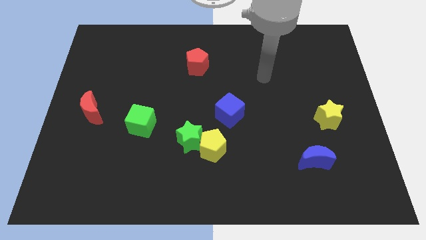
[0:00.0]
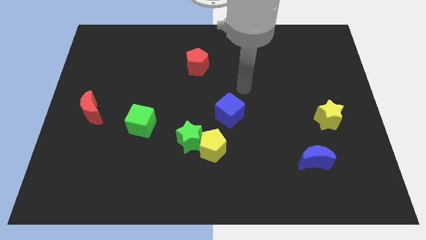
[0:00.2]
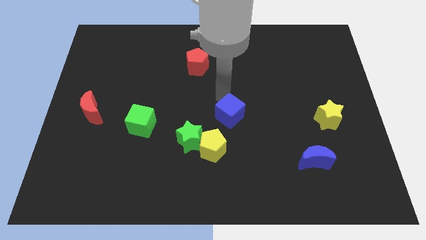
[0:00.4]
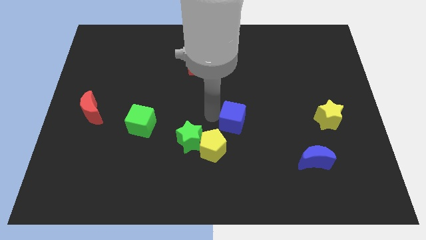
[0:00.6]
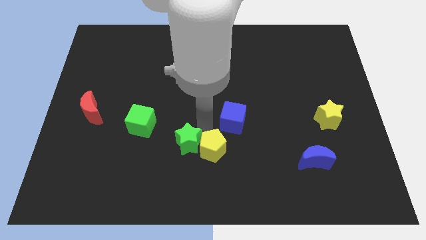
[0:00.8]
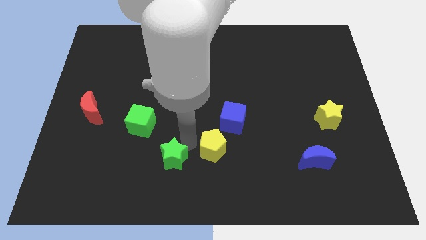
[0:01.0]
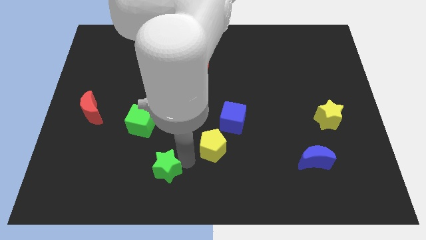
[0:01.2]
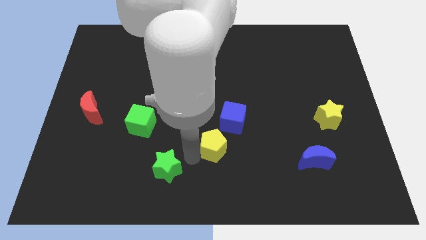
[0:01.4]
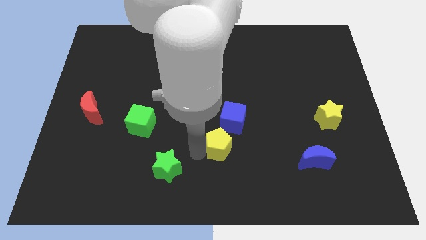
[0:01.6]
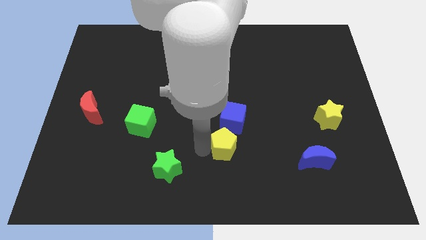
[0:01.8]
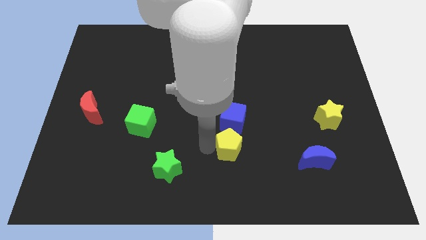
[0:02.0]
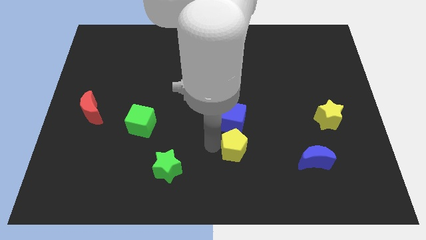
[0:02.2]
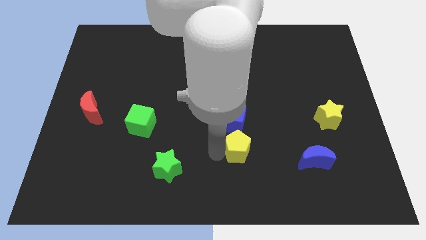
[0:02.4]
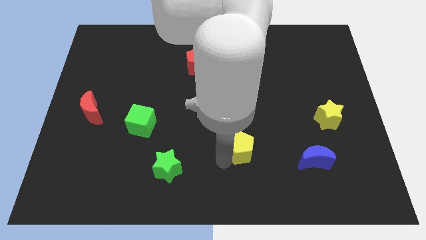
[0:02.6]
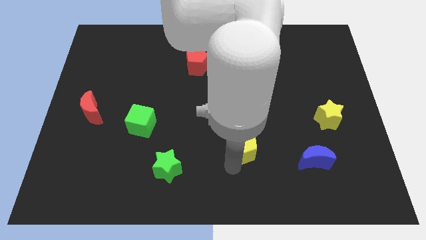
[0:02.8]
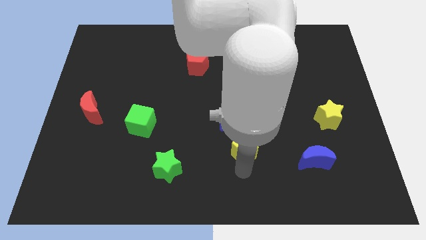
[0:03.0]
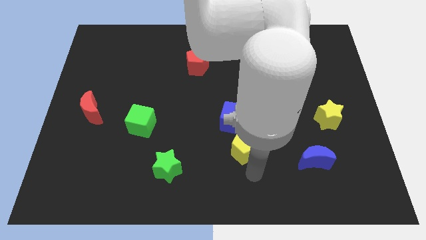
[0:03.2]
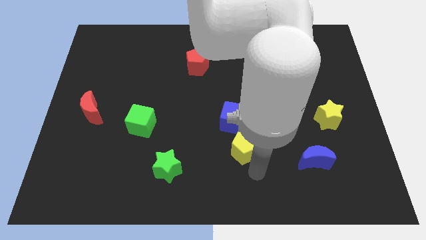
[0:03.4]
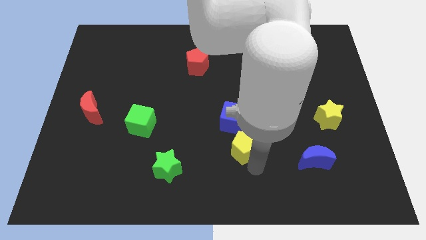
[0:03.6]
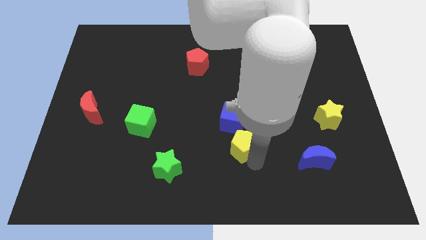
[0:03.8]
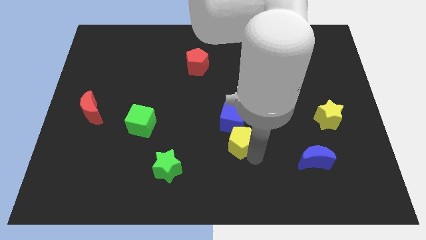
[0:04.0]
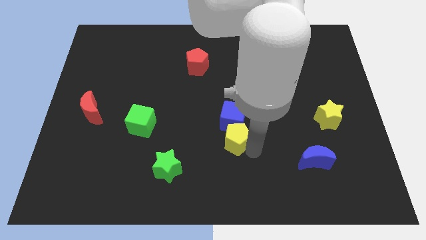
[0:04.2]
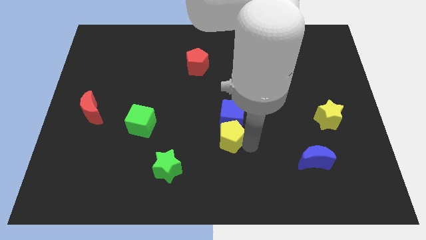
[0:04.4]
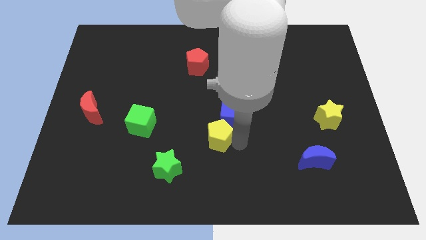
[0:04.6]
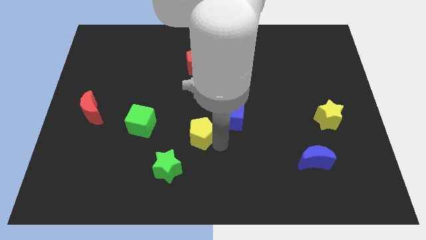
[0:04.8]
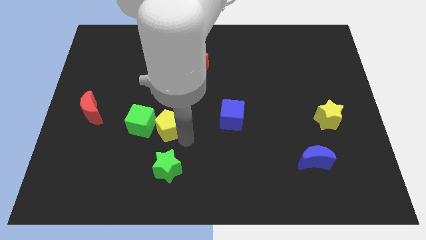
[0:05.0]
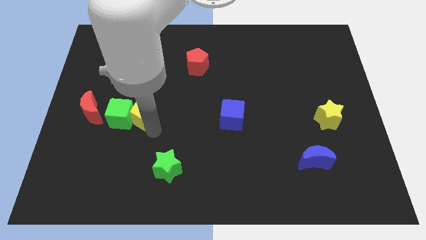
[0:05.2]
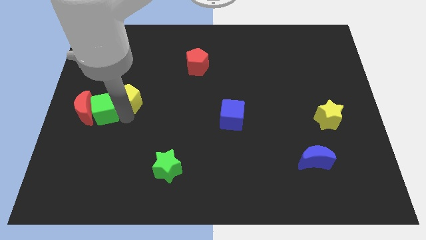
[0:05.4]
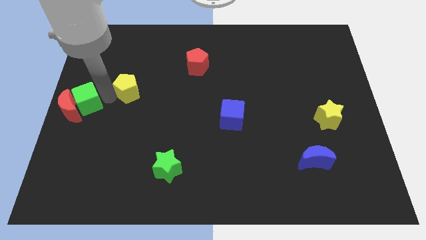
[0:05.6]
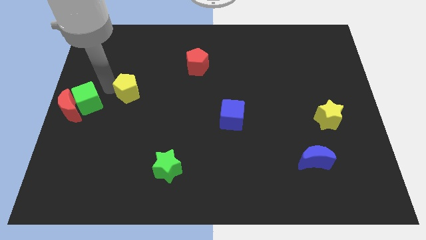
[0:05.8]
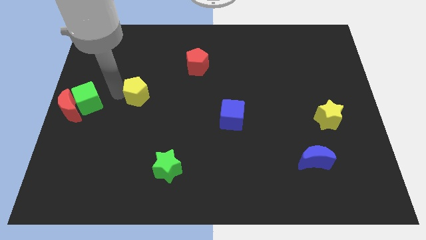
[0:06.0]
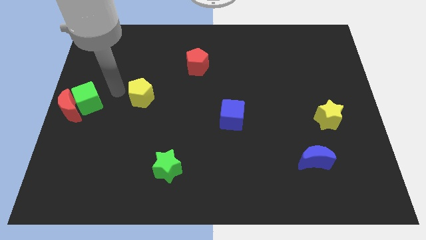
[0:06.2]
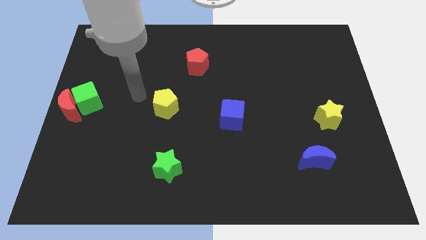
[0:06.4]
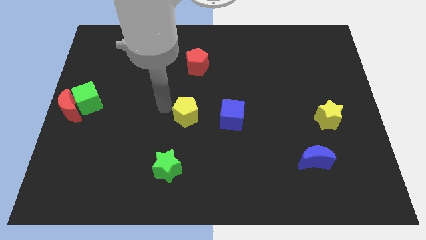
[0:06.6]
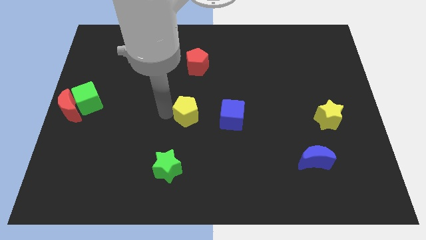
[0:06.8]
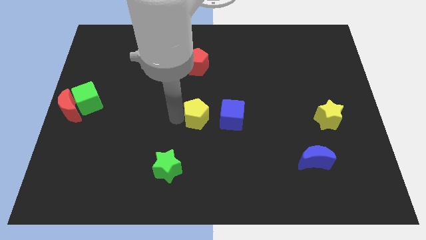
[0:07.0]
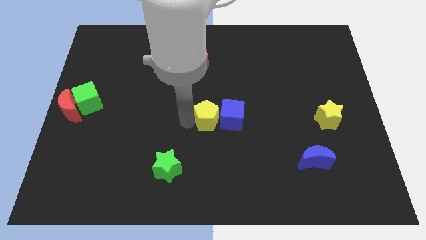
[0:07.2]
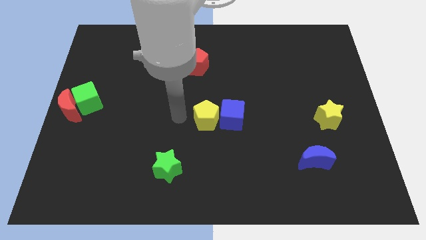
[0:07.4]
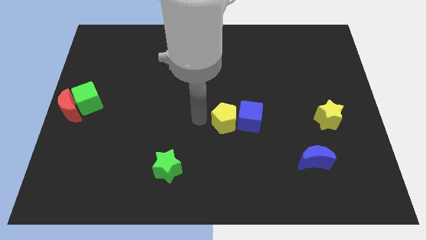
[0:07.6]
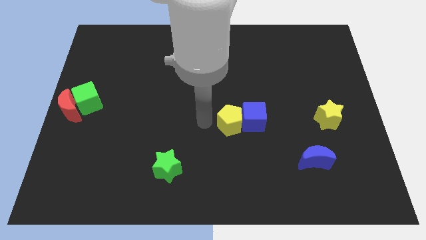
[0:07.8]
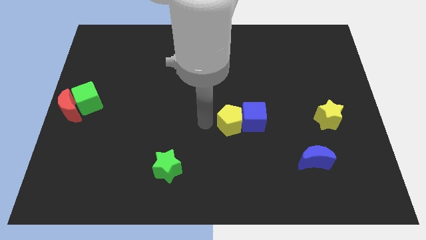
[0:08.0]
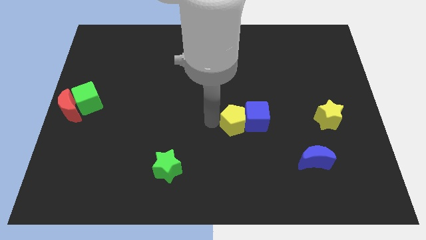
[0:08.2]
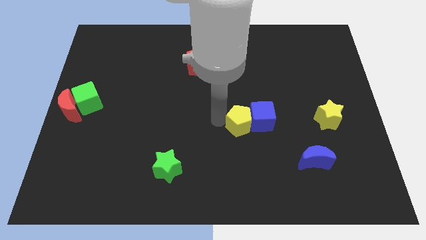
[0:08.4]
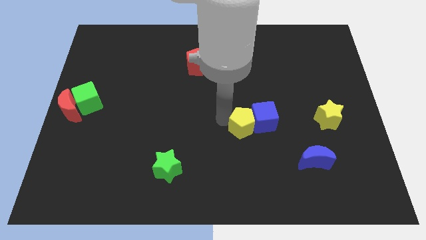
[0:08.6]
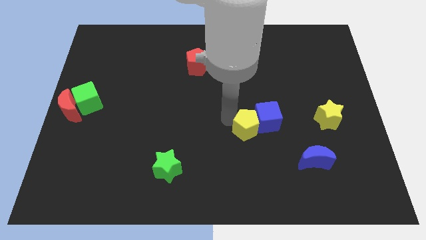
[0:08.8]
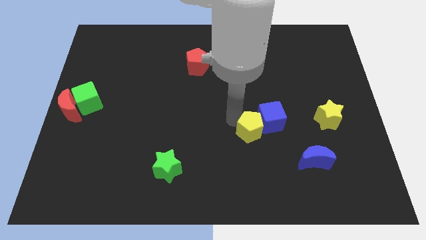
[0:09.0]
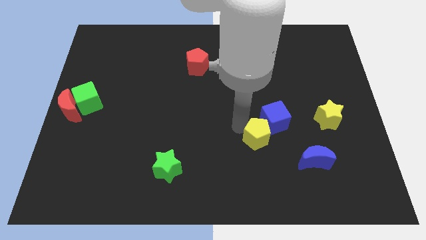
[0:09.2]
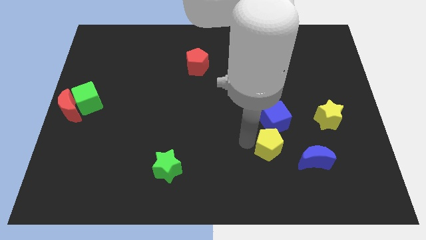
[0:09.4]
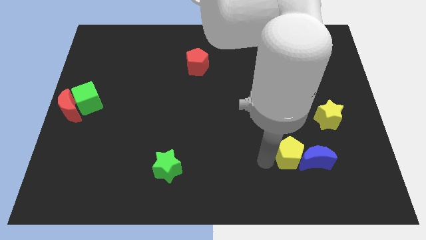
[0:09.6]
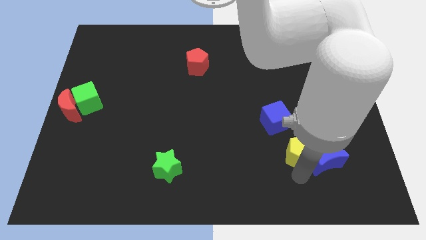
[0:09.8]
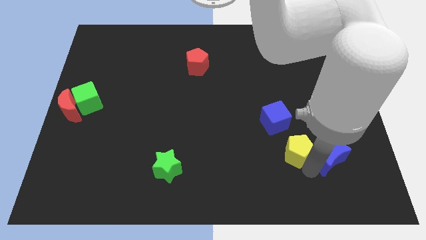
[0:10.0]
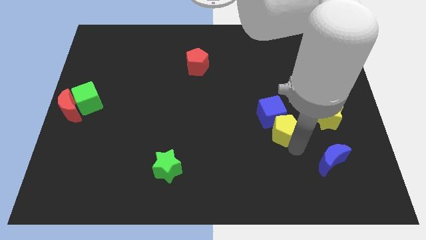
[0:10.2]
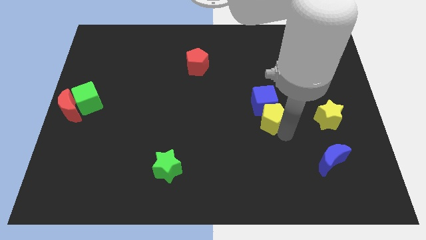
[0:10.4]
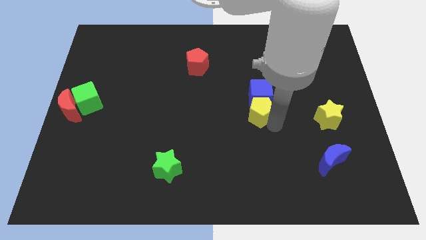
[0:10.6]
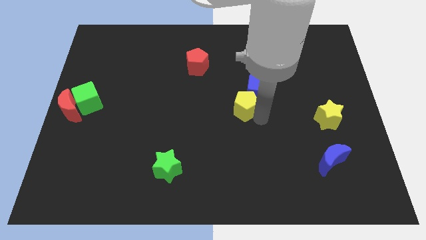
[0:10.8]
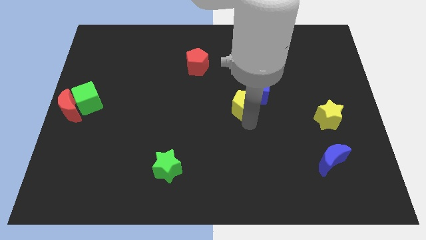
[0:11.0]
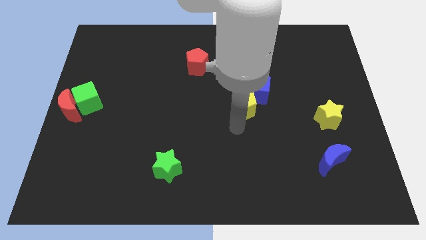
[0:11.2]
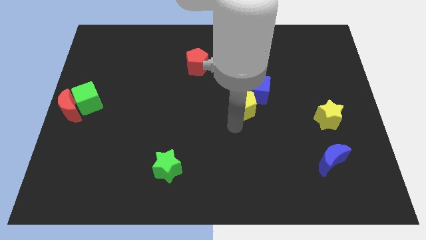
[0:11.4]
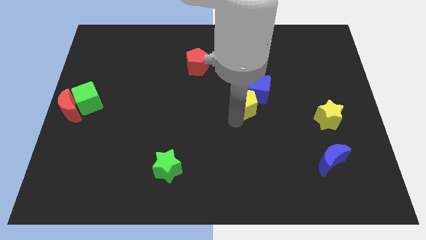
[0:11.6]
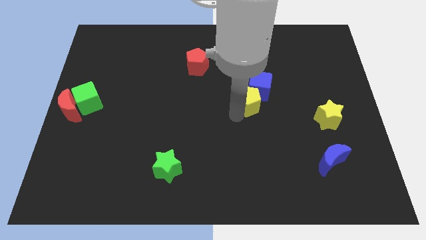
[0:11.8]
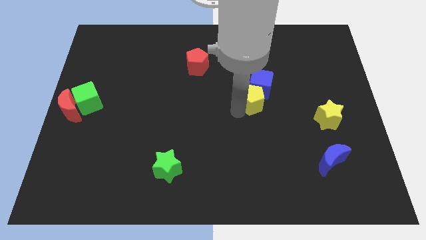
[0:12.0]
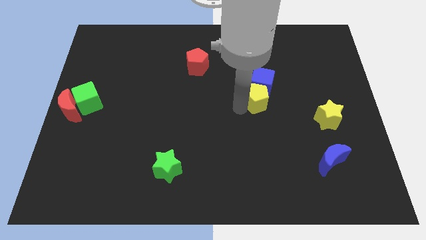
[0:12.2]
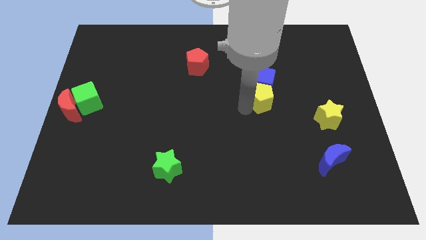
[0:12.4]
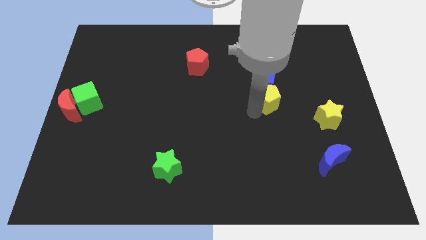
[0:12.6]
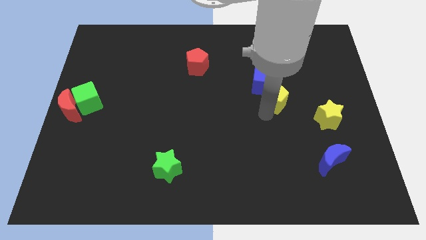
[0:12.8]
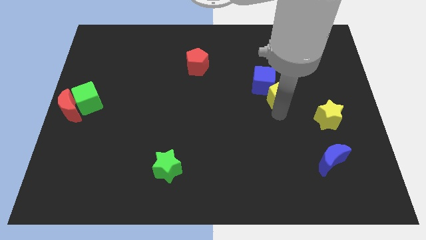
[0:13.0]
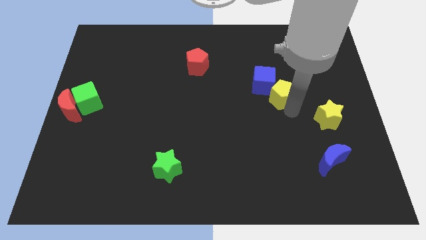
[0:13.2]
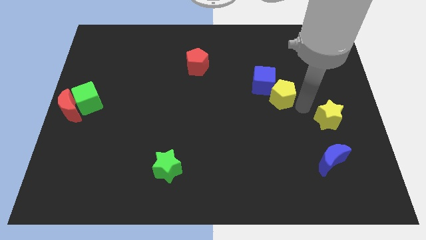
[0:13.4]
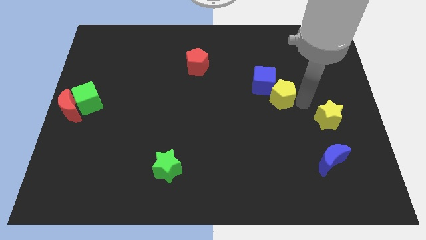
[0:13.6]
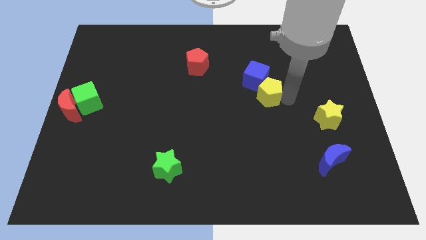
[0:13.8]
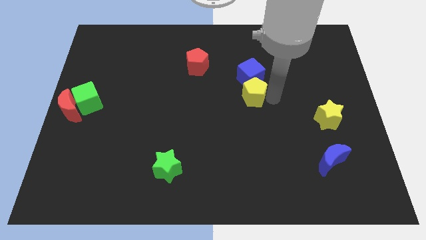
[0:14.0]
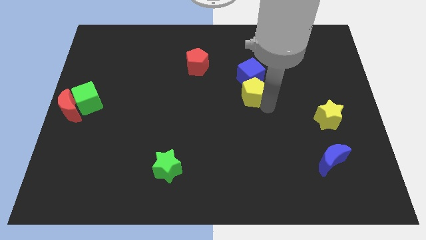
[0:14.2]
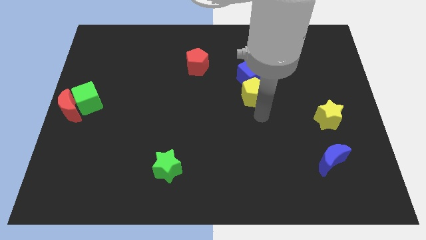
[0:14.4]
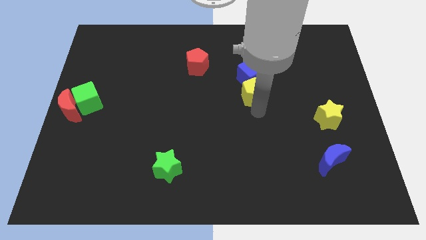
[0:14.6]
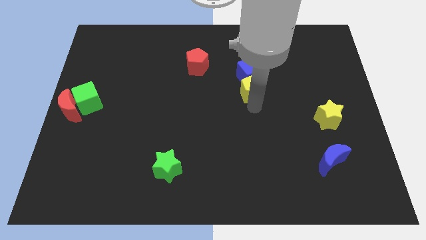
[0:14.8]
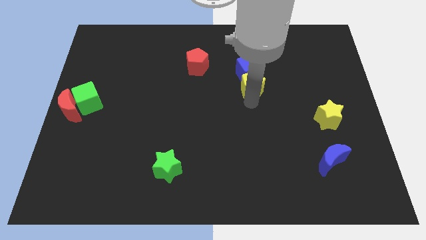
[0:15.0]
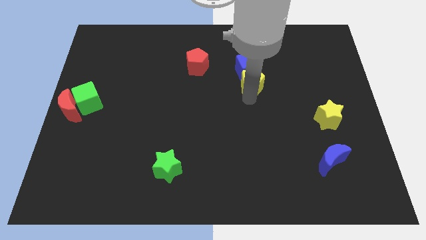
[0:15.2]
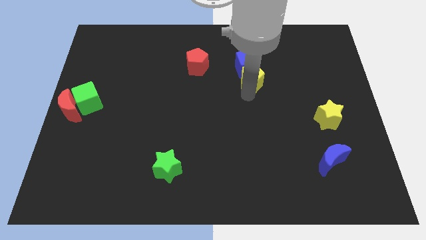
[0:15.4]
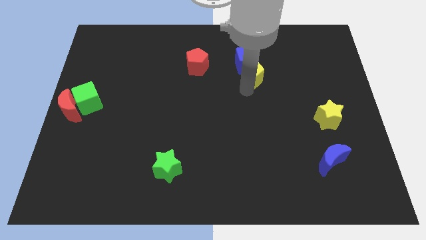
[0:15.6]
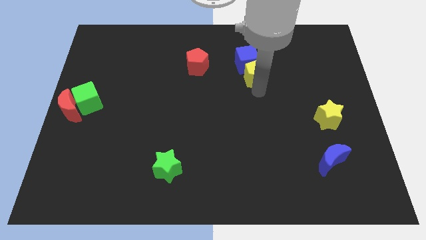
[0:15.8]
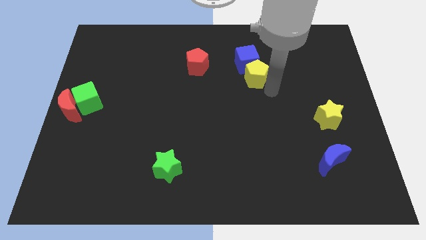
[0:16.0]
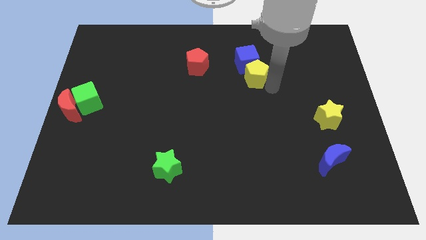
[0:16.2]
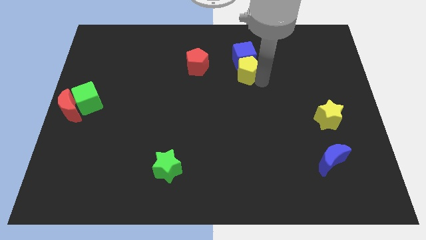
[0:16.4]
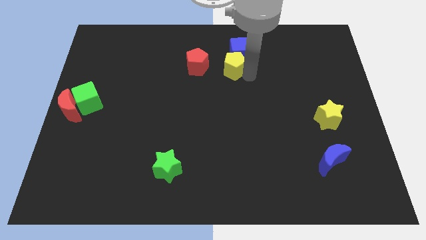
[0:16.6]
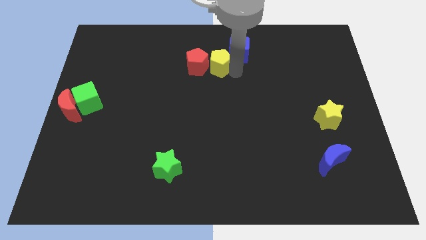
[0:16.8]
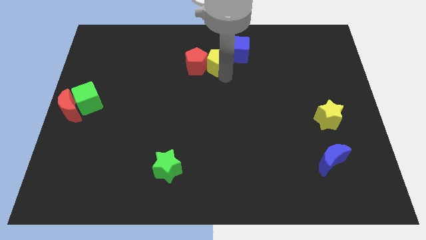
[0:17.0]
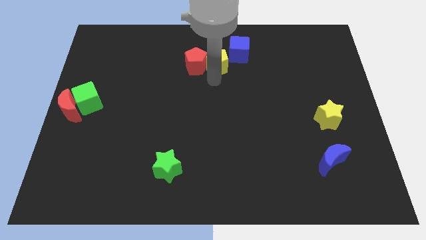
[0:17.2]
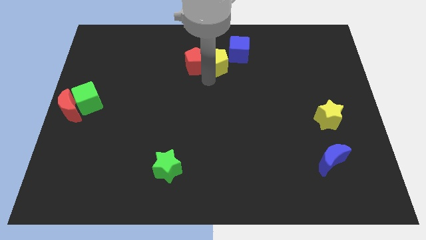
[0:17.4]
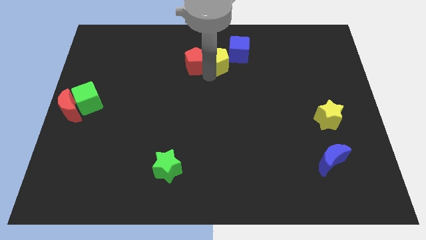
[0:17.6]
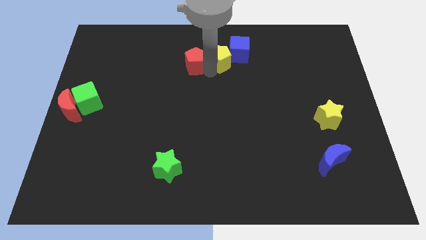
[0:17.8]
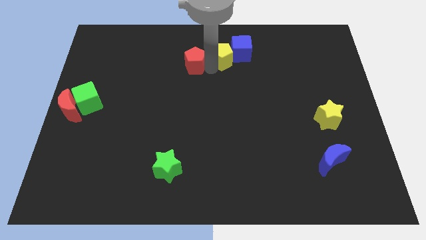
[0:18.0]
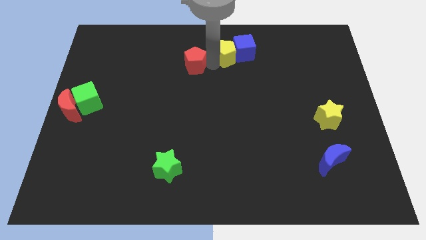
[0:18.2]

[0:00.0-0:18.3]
put the yellow pentagon to the towards your base
